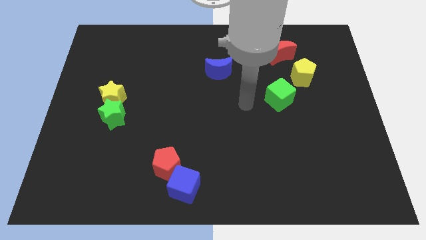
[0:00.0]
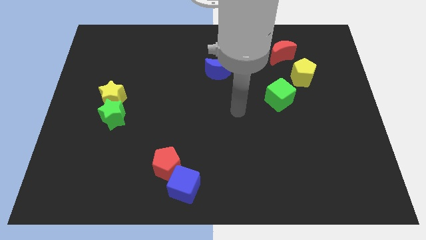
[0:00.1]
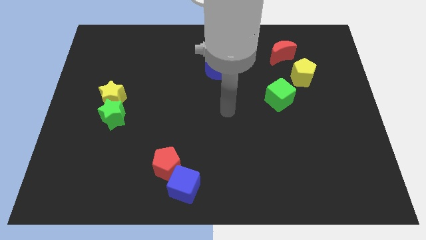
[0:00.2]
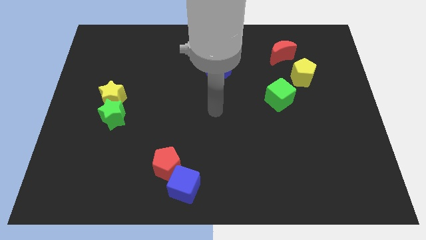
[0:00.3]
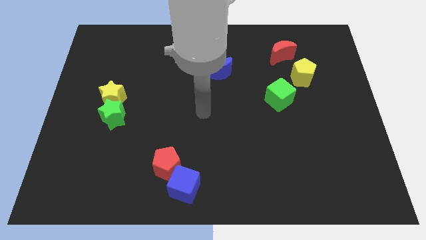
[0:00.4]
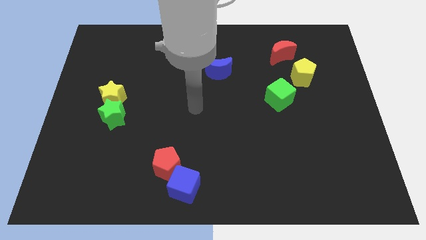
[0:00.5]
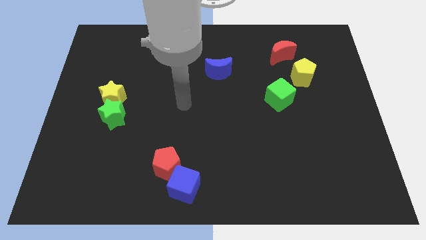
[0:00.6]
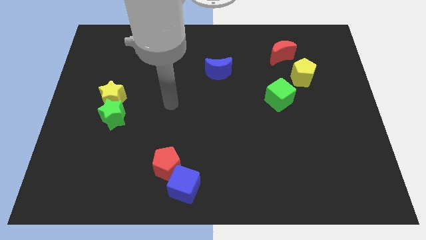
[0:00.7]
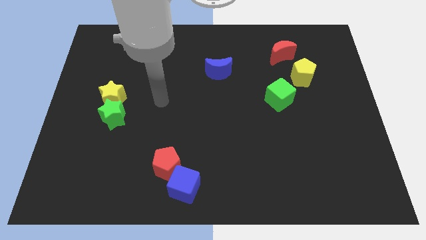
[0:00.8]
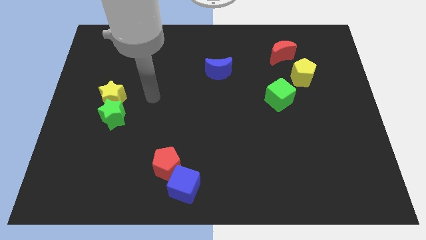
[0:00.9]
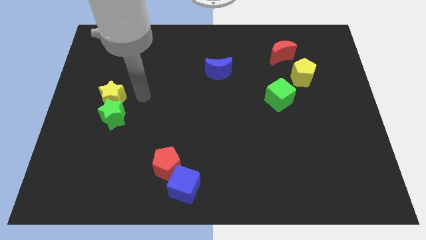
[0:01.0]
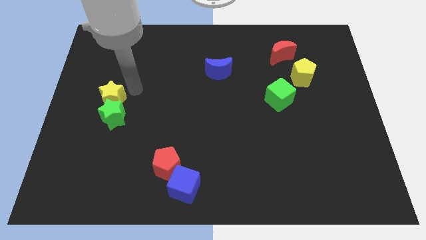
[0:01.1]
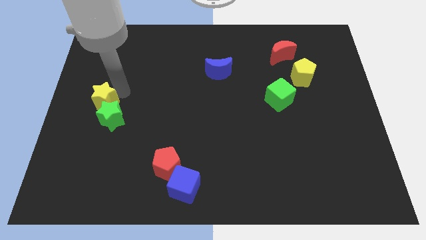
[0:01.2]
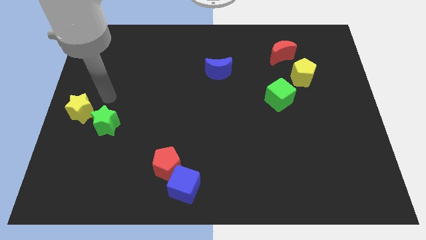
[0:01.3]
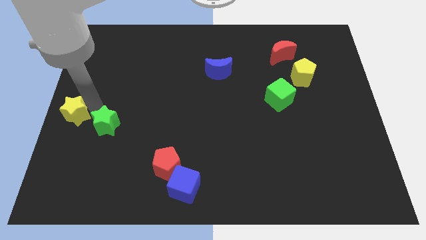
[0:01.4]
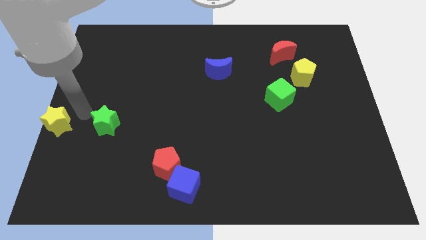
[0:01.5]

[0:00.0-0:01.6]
pull the green star apart from the yellow star

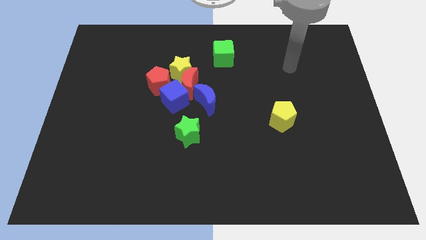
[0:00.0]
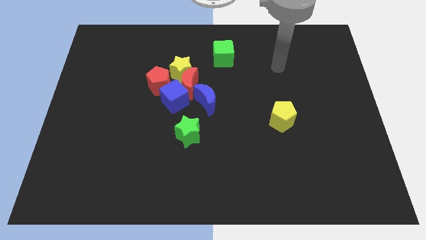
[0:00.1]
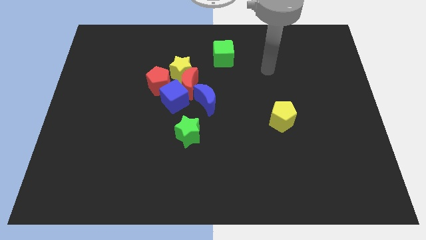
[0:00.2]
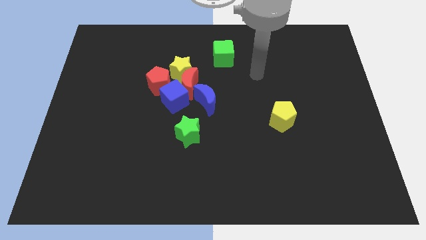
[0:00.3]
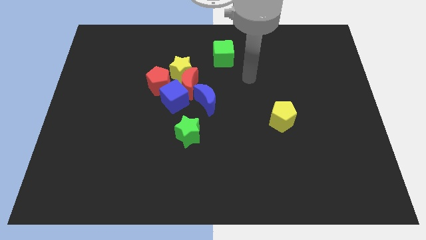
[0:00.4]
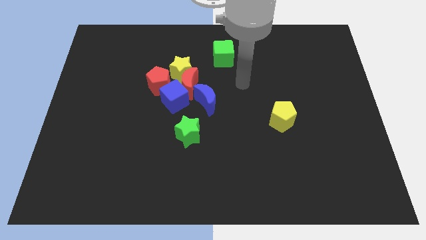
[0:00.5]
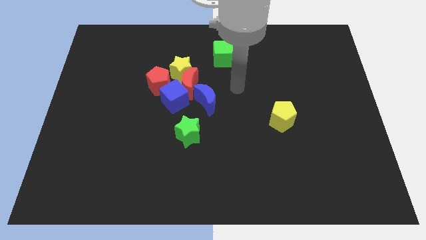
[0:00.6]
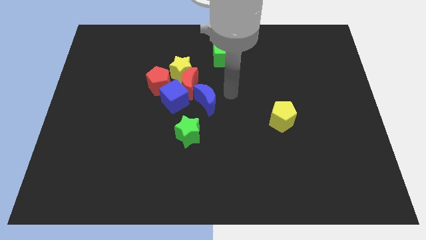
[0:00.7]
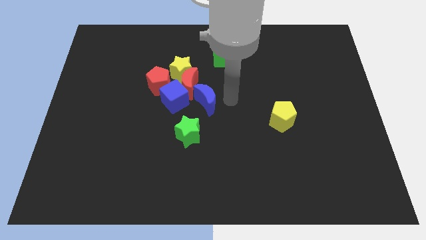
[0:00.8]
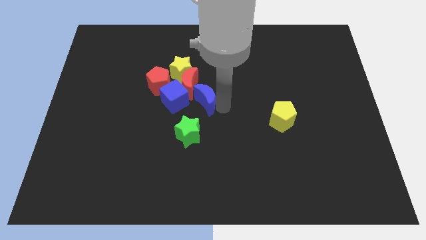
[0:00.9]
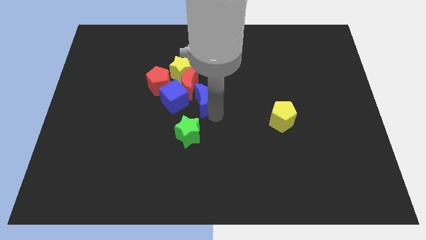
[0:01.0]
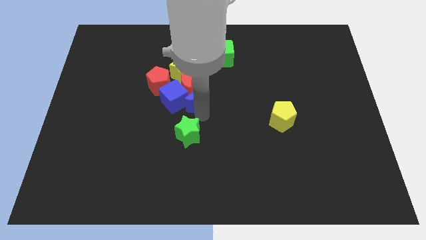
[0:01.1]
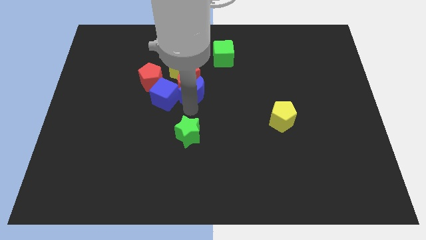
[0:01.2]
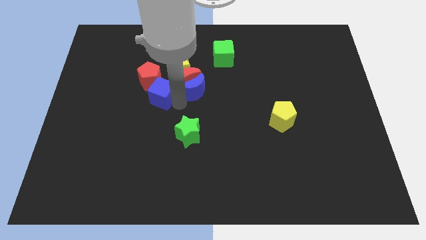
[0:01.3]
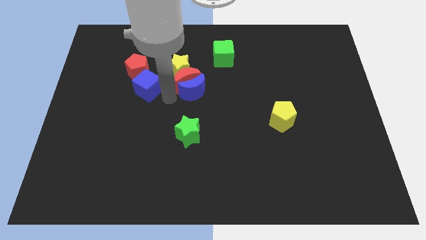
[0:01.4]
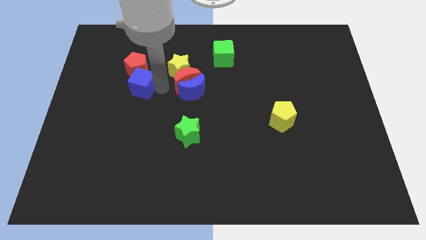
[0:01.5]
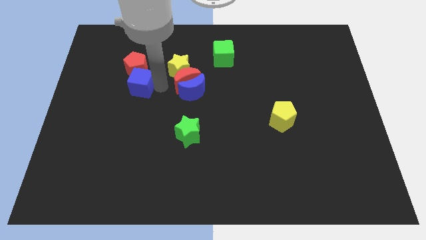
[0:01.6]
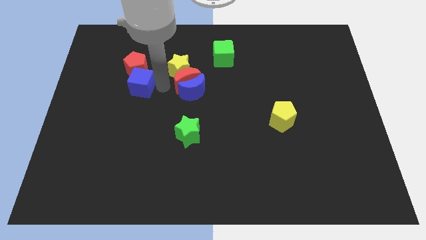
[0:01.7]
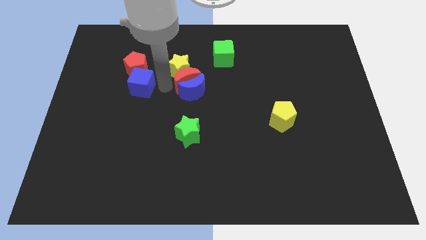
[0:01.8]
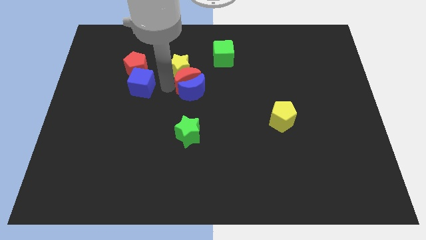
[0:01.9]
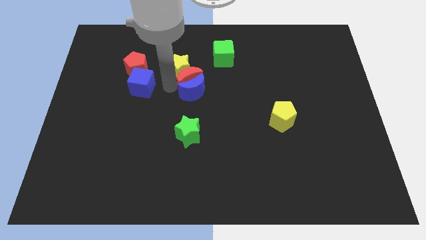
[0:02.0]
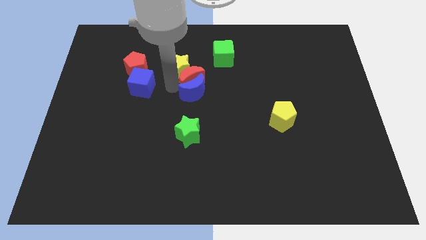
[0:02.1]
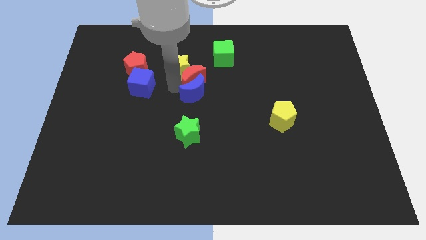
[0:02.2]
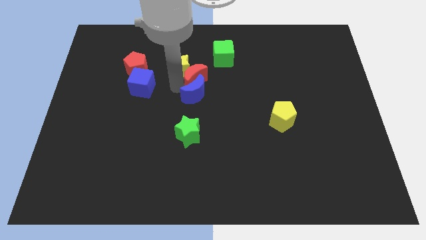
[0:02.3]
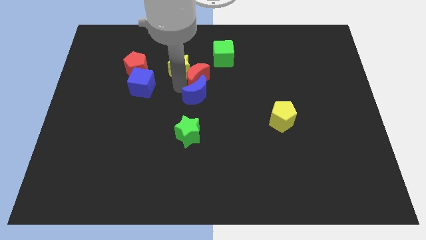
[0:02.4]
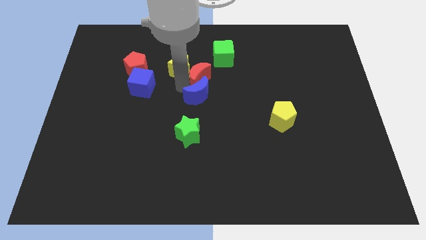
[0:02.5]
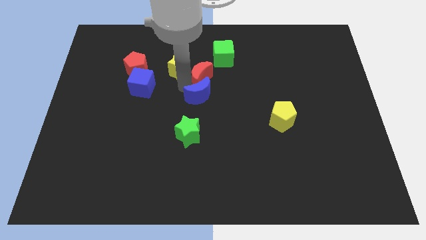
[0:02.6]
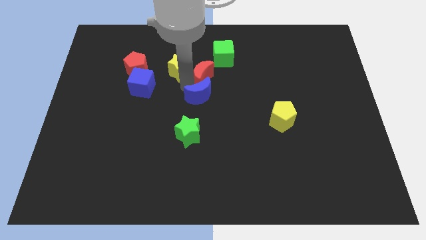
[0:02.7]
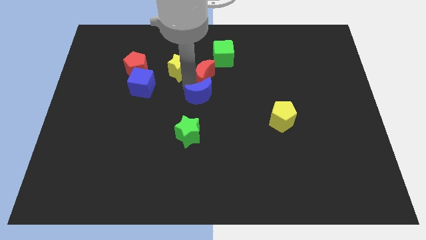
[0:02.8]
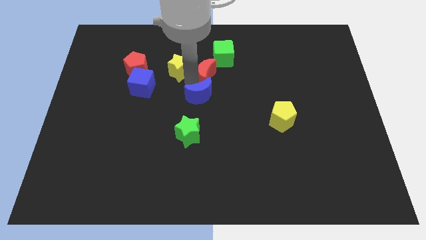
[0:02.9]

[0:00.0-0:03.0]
pull the red moon apart from the group

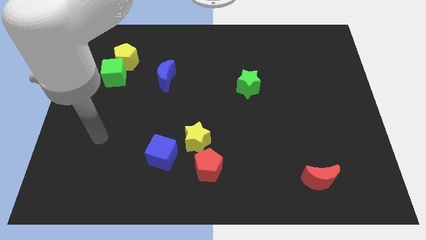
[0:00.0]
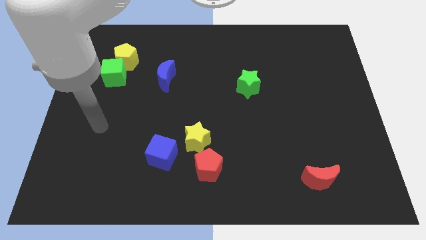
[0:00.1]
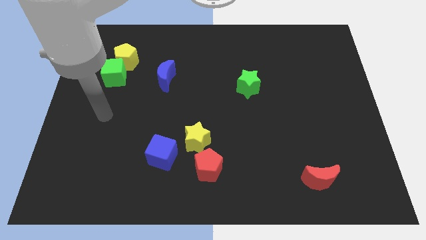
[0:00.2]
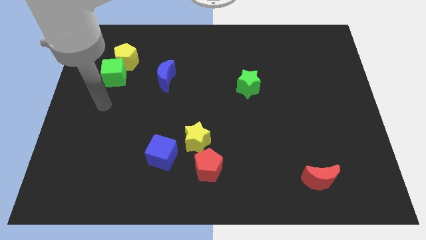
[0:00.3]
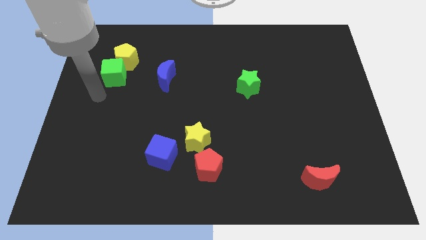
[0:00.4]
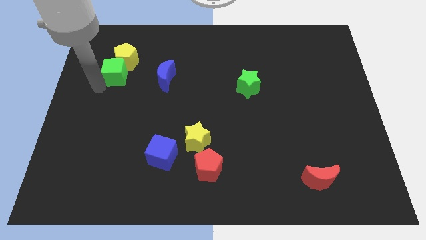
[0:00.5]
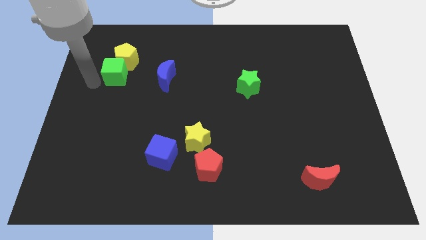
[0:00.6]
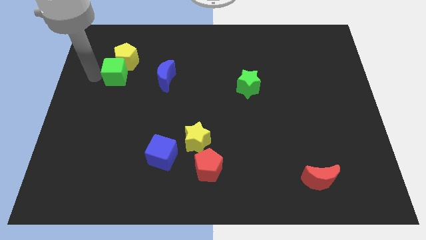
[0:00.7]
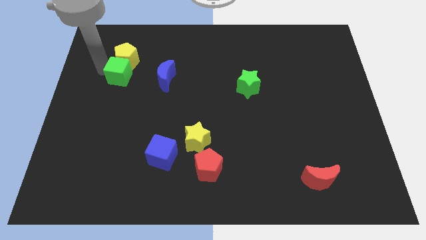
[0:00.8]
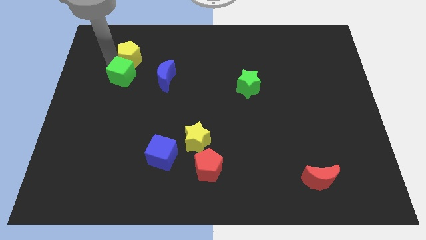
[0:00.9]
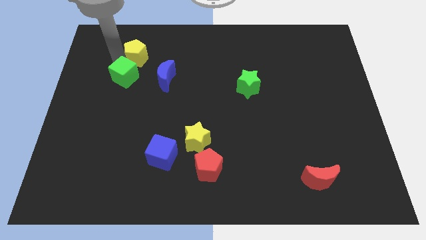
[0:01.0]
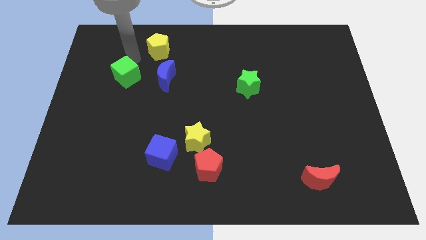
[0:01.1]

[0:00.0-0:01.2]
pull the green cube apart from the yellow pentagon

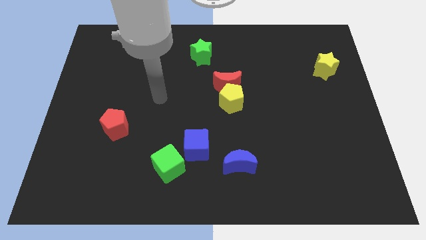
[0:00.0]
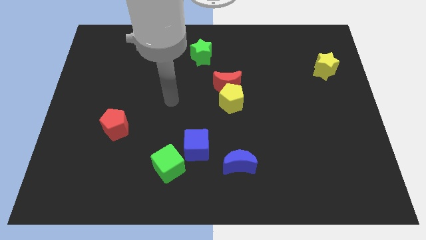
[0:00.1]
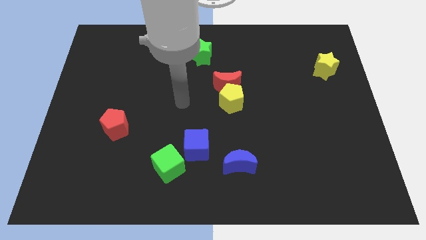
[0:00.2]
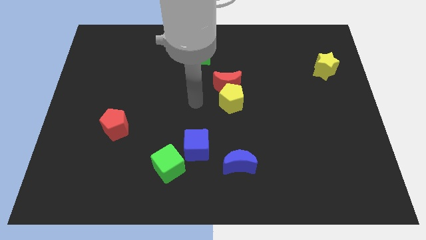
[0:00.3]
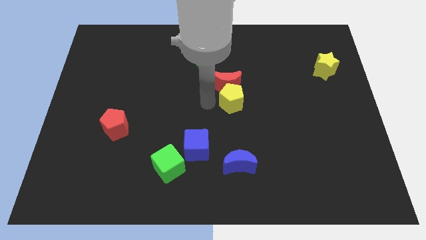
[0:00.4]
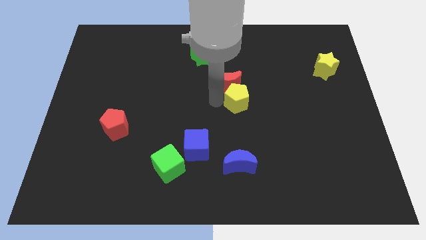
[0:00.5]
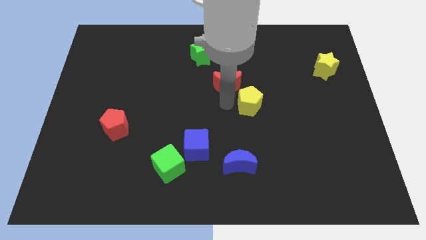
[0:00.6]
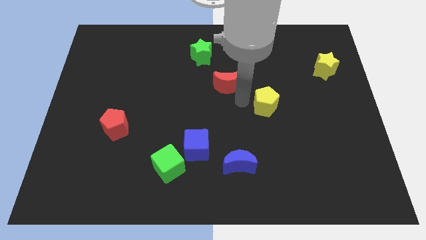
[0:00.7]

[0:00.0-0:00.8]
move the red moon away from the yellow pentagon

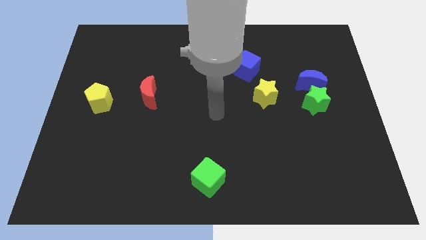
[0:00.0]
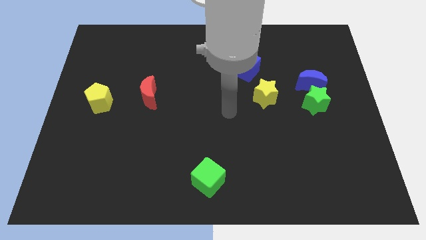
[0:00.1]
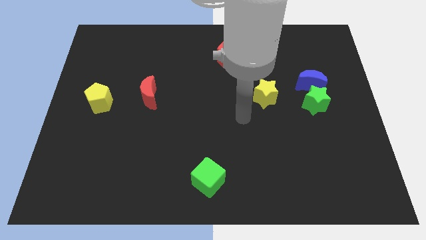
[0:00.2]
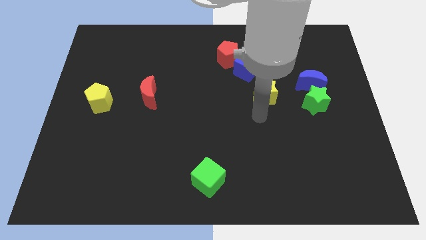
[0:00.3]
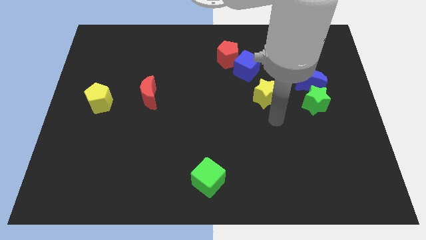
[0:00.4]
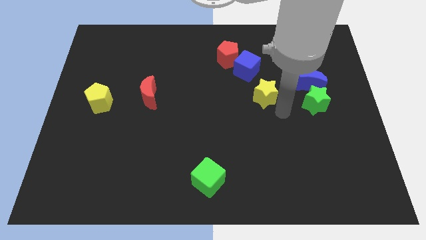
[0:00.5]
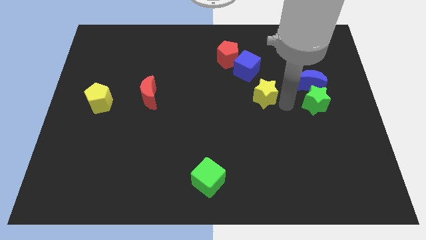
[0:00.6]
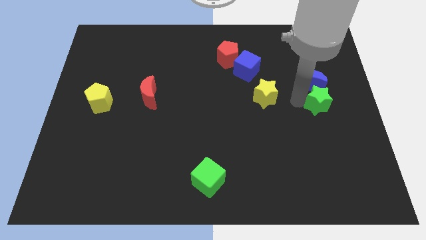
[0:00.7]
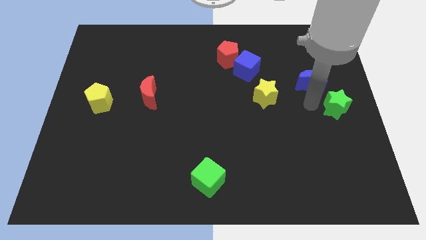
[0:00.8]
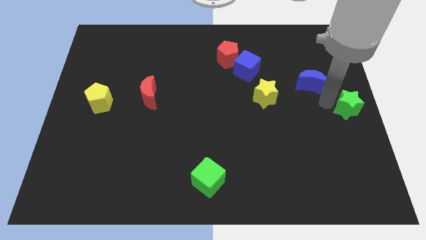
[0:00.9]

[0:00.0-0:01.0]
pull the blue moon apart from the green star

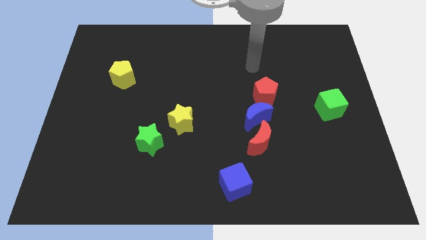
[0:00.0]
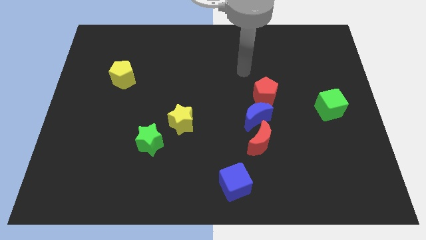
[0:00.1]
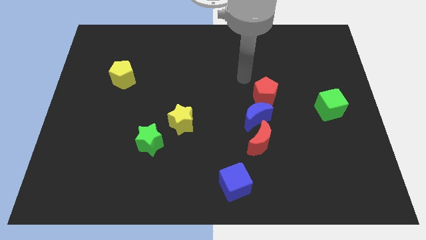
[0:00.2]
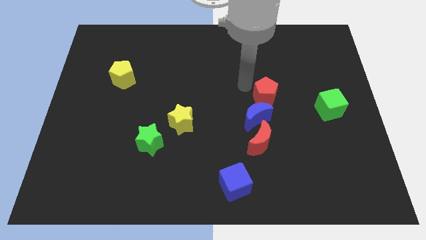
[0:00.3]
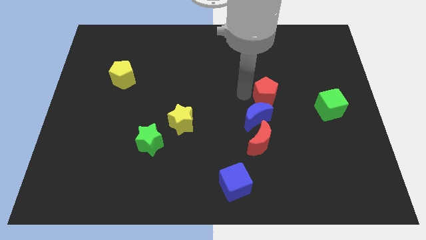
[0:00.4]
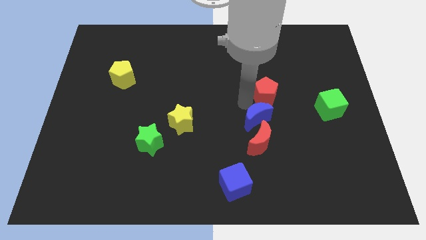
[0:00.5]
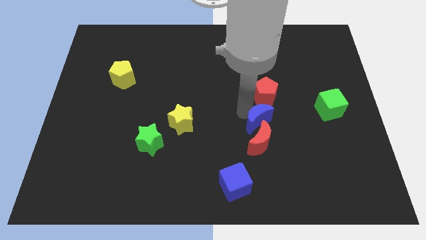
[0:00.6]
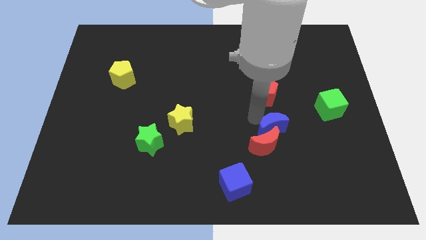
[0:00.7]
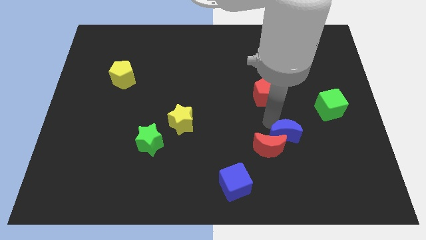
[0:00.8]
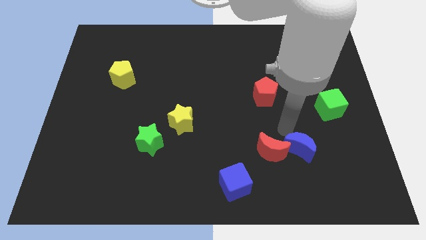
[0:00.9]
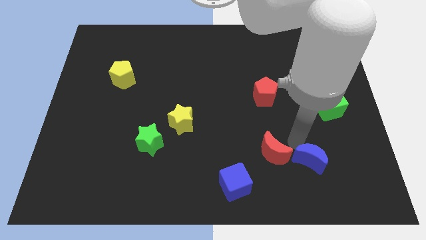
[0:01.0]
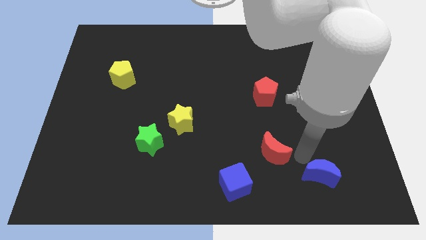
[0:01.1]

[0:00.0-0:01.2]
pull the red moon apart from the blue moon

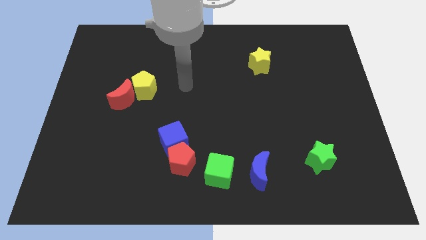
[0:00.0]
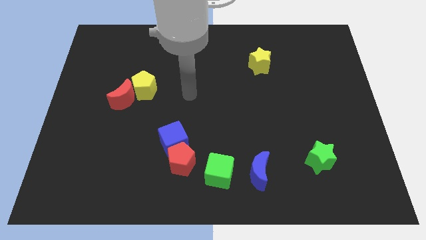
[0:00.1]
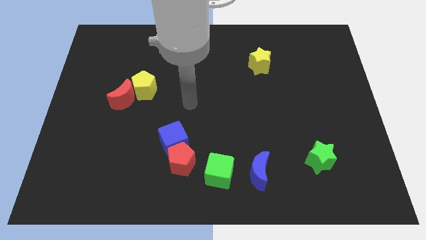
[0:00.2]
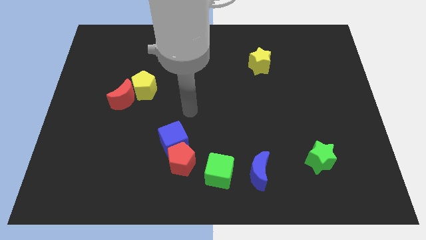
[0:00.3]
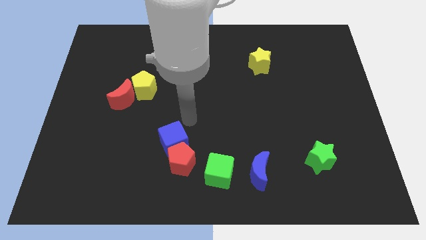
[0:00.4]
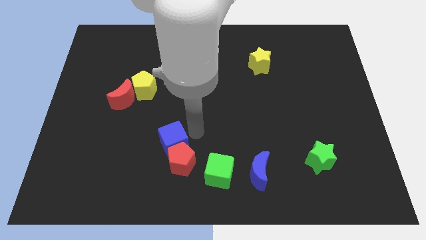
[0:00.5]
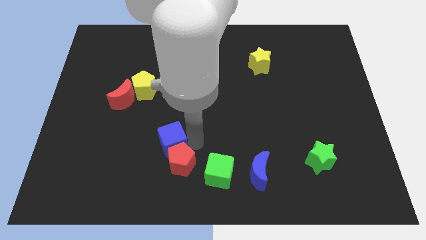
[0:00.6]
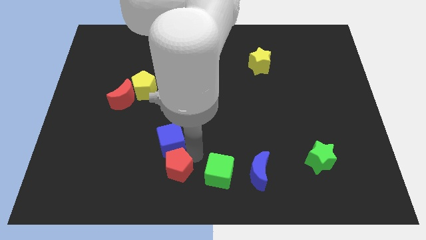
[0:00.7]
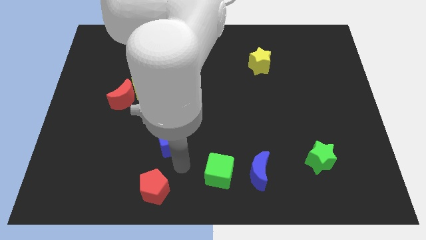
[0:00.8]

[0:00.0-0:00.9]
separate the blue cube from the red pentagon
